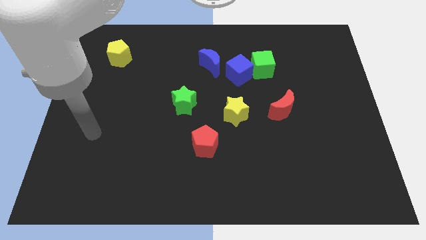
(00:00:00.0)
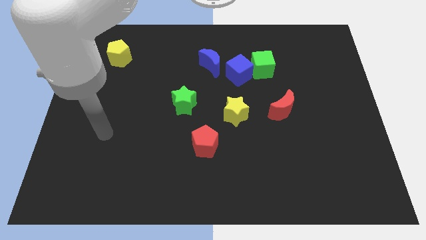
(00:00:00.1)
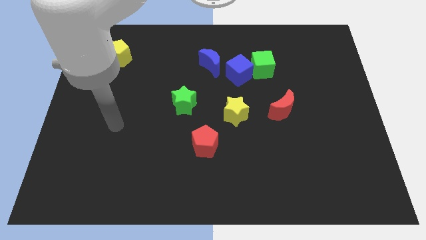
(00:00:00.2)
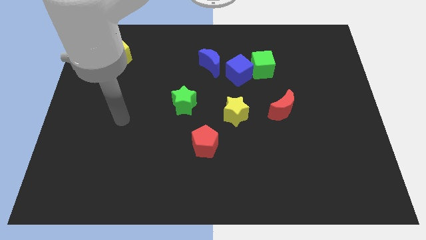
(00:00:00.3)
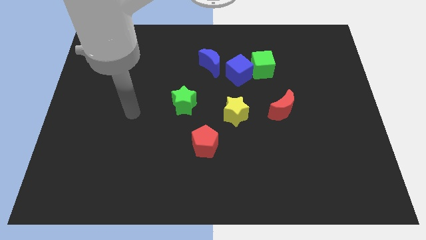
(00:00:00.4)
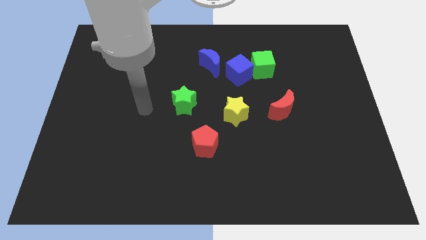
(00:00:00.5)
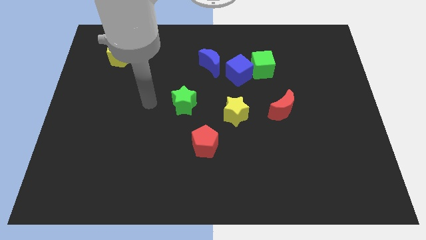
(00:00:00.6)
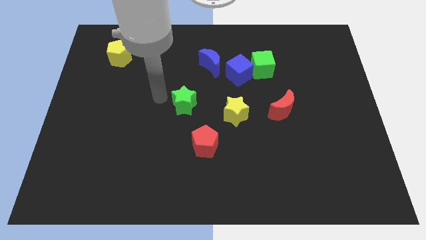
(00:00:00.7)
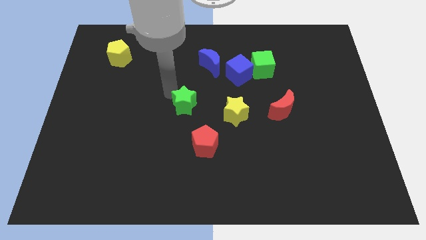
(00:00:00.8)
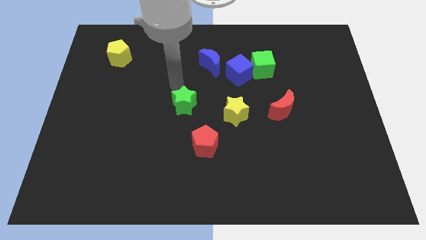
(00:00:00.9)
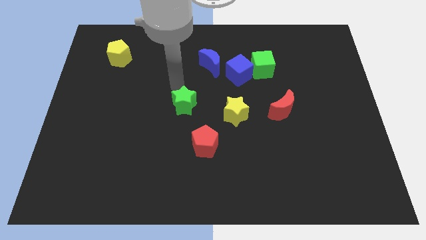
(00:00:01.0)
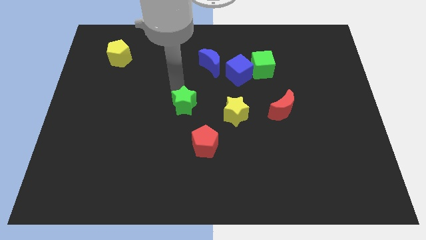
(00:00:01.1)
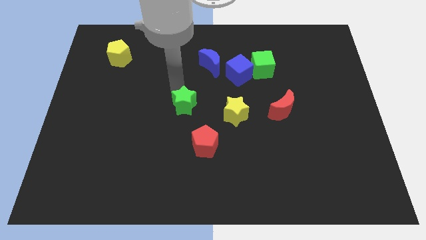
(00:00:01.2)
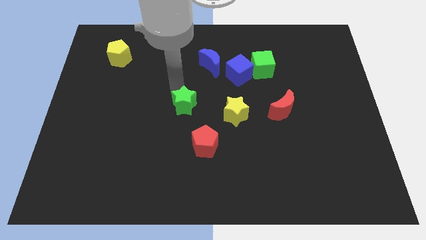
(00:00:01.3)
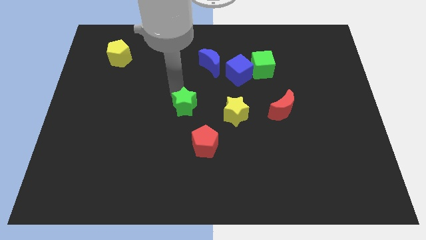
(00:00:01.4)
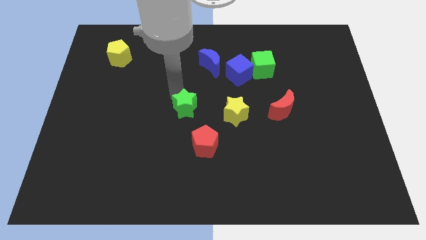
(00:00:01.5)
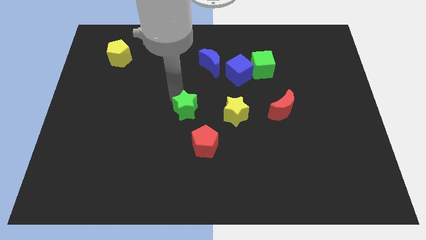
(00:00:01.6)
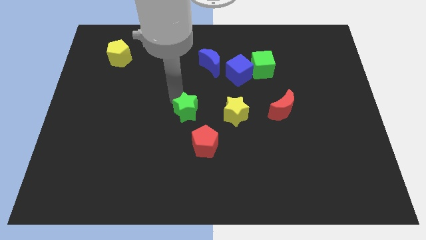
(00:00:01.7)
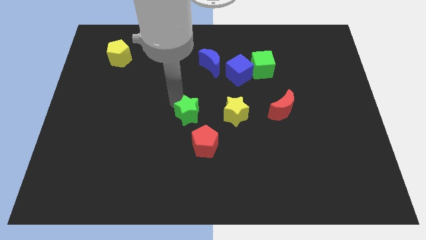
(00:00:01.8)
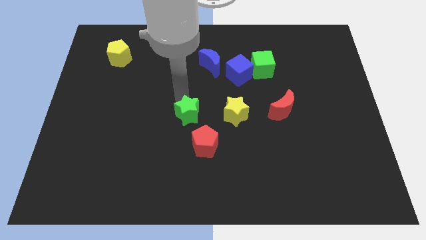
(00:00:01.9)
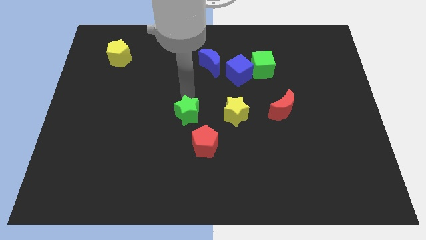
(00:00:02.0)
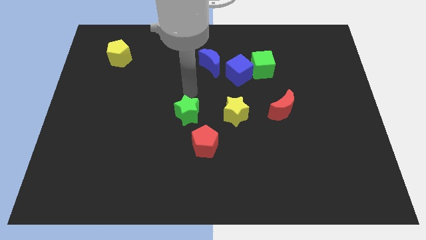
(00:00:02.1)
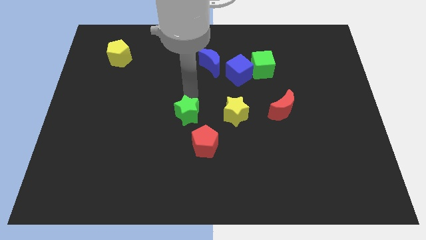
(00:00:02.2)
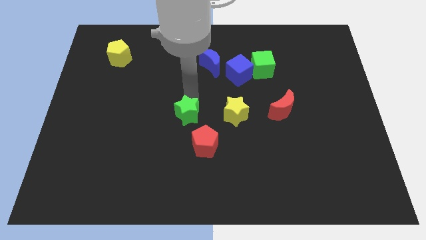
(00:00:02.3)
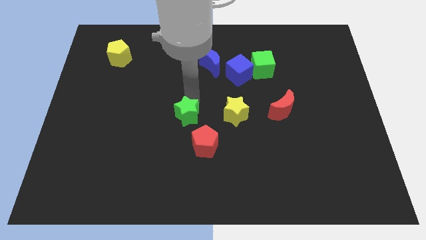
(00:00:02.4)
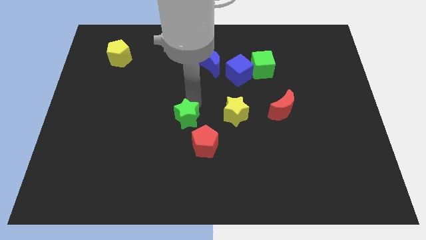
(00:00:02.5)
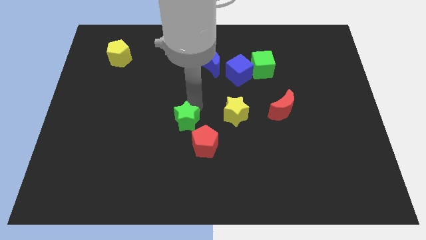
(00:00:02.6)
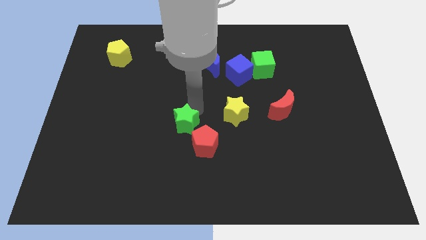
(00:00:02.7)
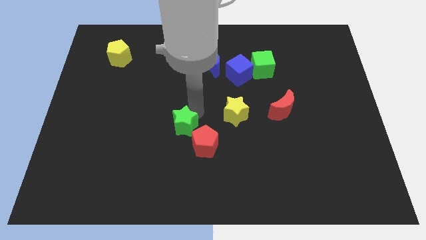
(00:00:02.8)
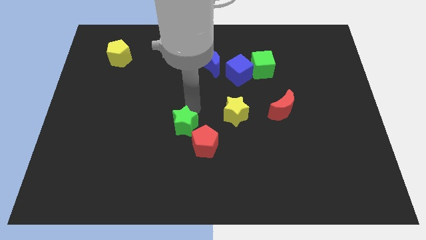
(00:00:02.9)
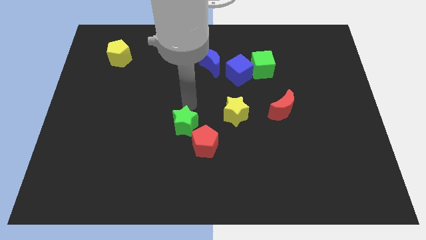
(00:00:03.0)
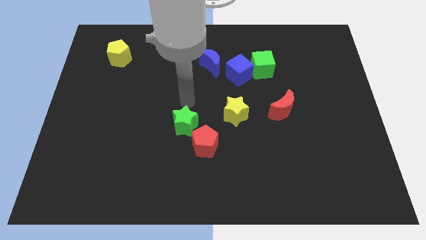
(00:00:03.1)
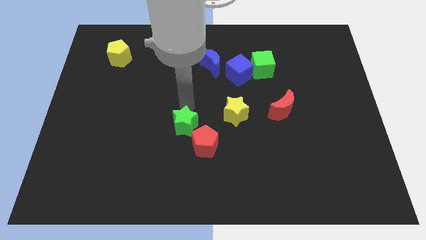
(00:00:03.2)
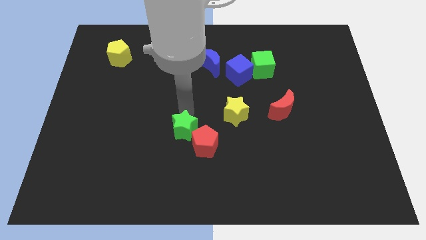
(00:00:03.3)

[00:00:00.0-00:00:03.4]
push the green star a little bit downwards

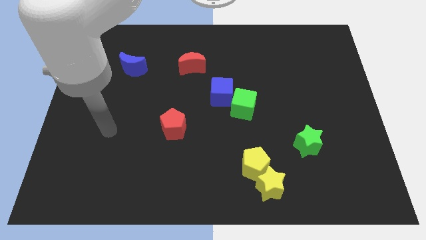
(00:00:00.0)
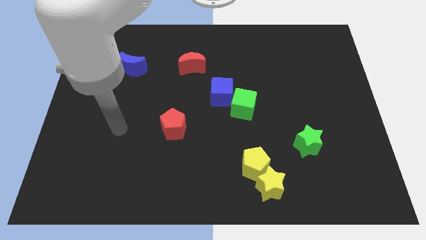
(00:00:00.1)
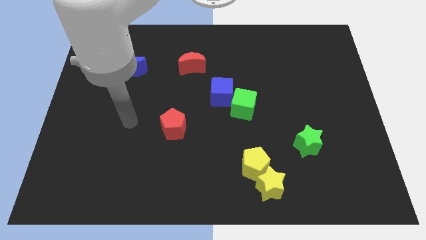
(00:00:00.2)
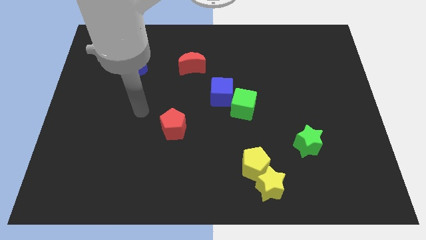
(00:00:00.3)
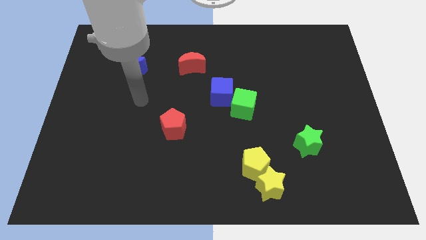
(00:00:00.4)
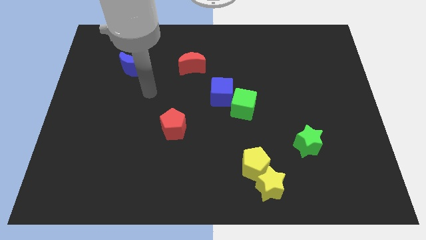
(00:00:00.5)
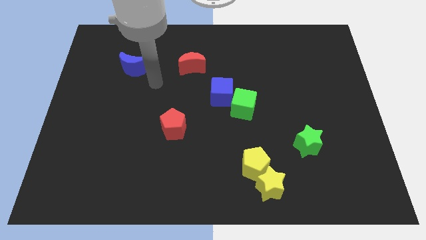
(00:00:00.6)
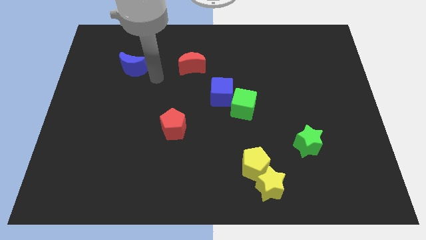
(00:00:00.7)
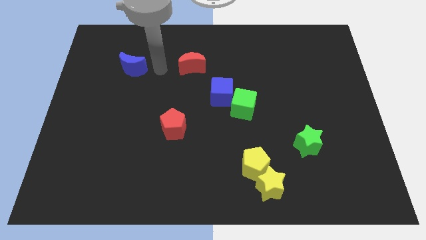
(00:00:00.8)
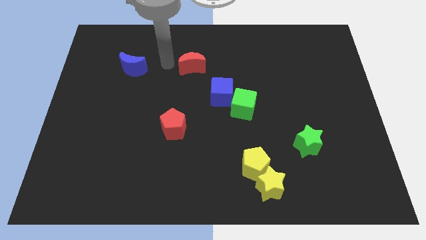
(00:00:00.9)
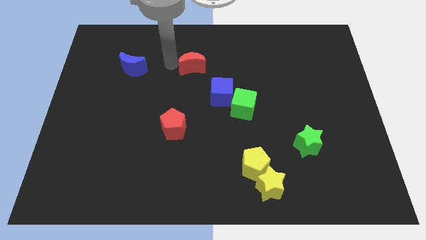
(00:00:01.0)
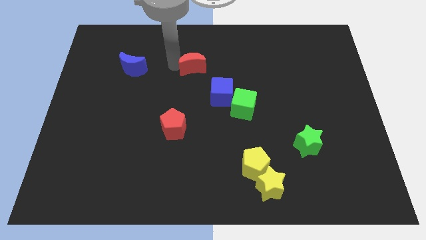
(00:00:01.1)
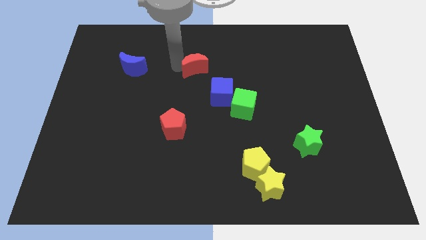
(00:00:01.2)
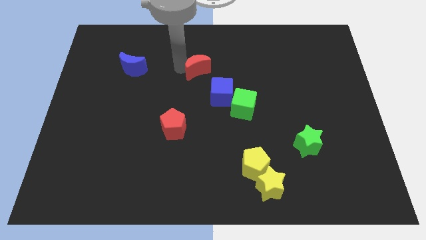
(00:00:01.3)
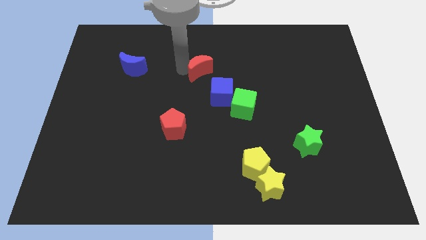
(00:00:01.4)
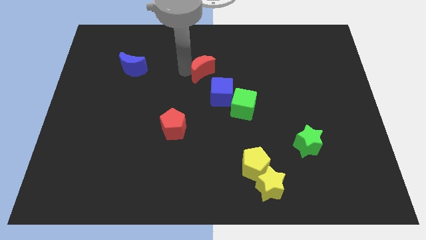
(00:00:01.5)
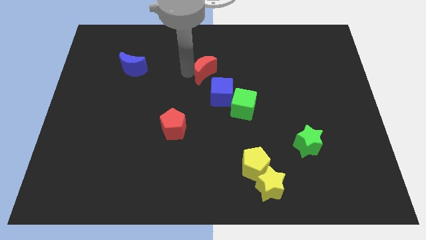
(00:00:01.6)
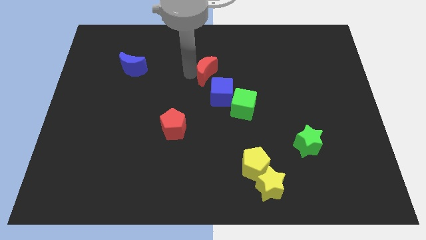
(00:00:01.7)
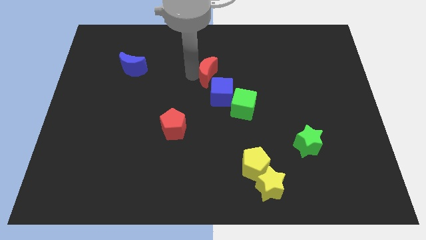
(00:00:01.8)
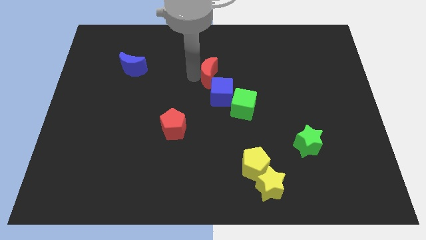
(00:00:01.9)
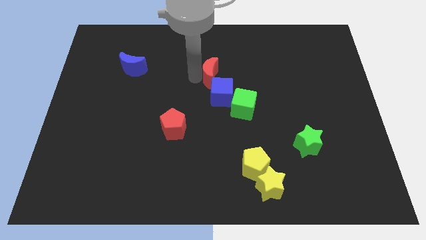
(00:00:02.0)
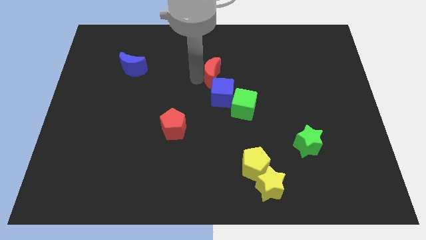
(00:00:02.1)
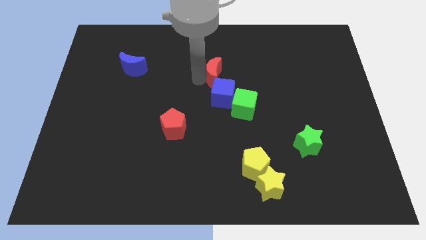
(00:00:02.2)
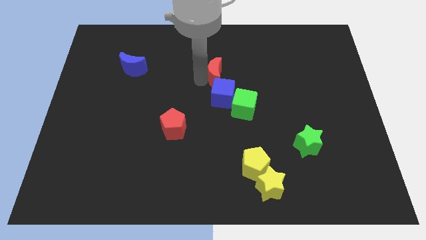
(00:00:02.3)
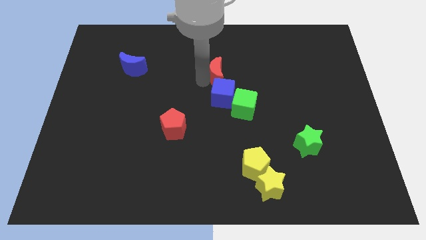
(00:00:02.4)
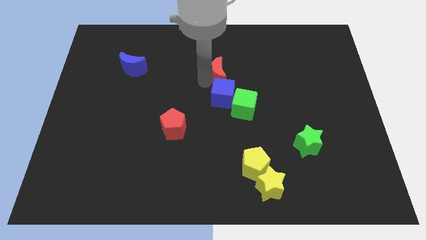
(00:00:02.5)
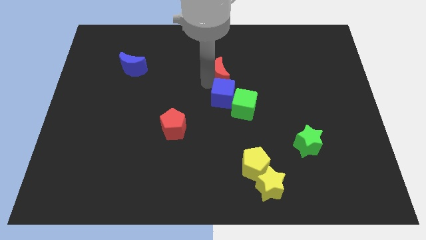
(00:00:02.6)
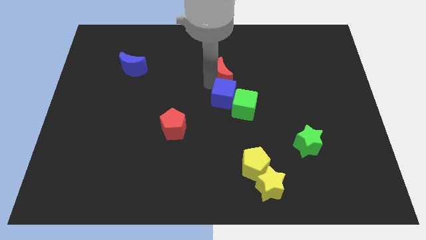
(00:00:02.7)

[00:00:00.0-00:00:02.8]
move the red moon to the right slightly

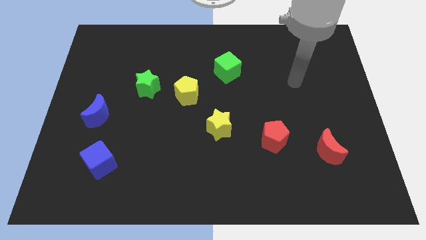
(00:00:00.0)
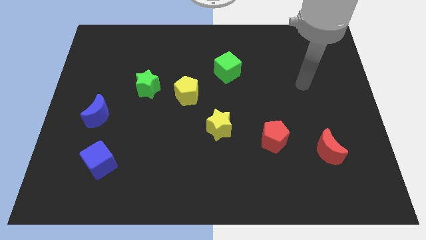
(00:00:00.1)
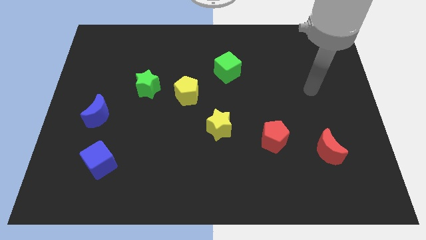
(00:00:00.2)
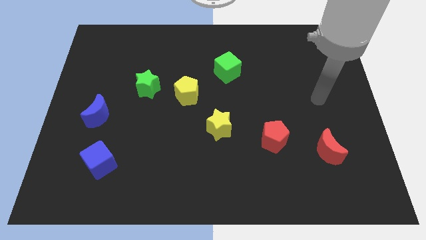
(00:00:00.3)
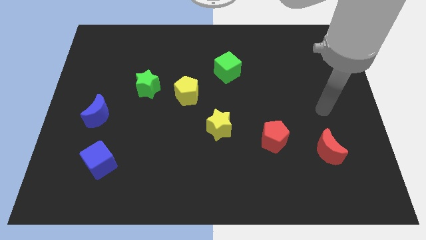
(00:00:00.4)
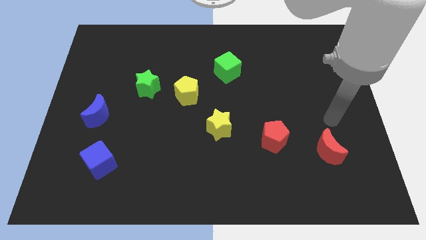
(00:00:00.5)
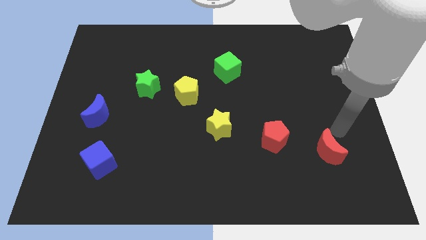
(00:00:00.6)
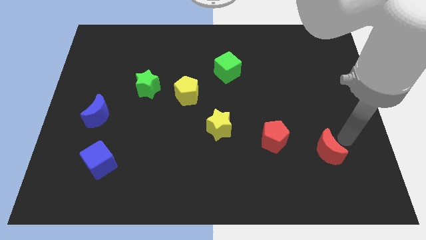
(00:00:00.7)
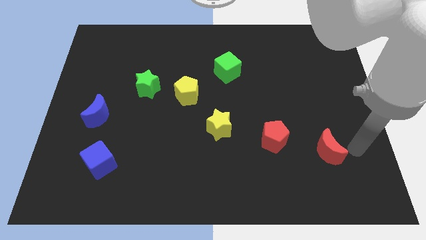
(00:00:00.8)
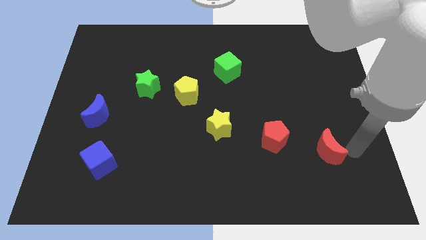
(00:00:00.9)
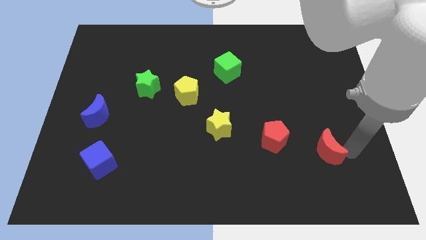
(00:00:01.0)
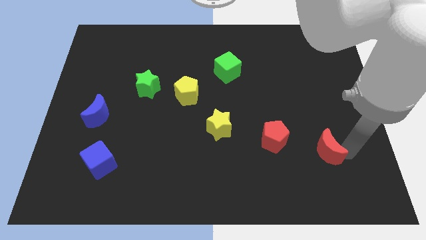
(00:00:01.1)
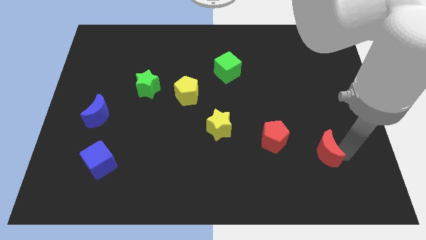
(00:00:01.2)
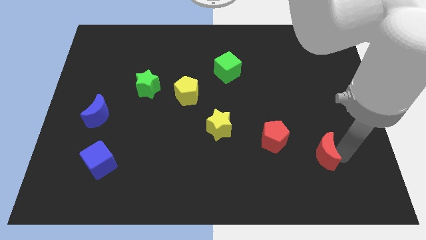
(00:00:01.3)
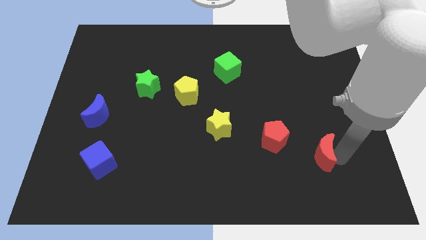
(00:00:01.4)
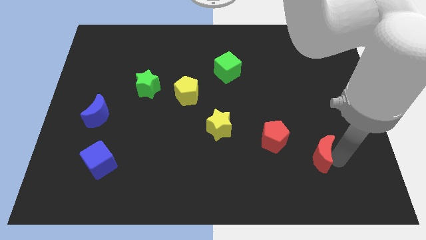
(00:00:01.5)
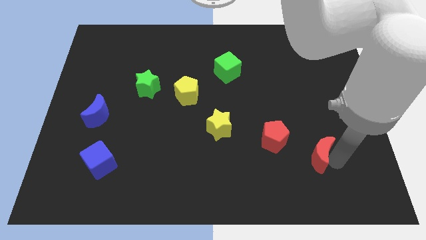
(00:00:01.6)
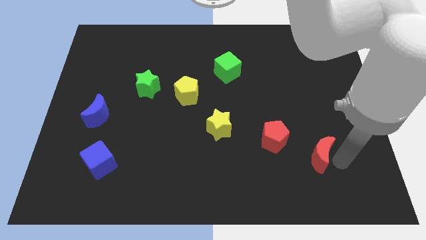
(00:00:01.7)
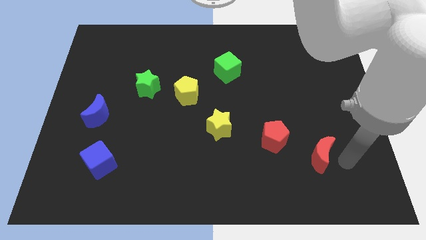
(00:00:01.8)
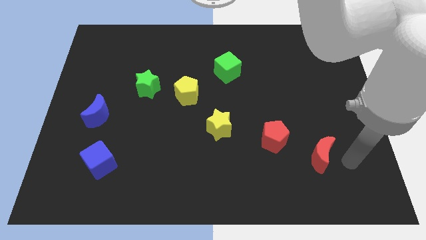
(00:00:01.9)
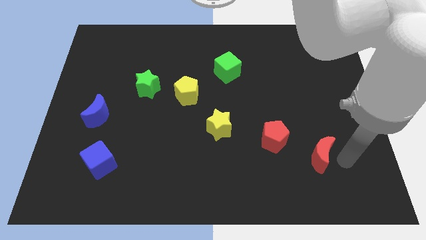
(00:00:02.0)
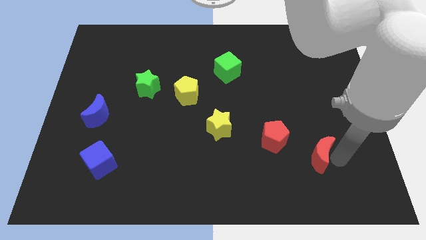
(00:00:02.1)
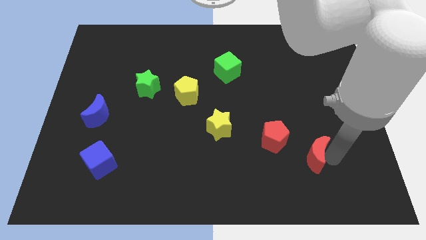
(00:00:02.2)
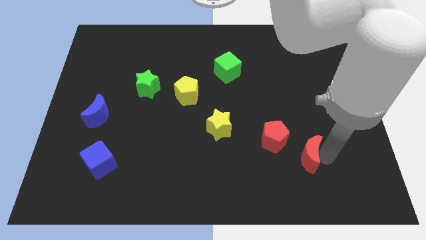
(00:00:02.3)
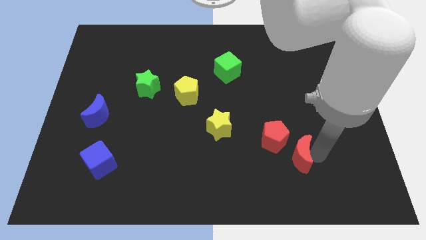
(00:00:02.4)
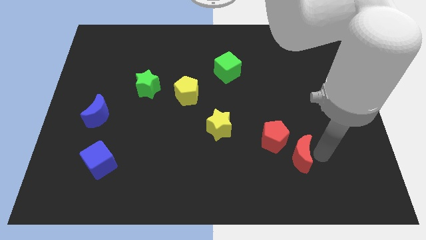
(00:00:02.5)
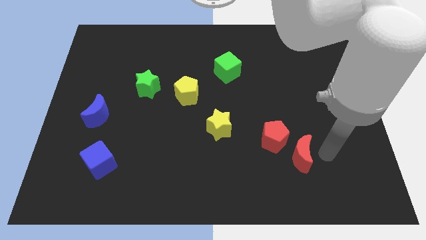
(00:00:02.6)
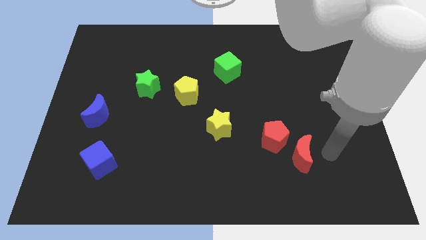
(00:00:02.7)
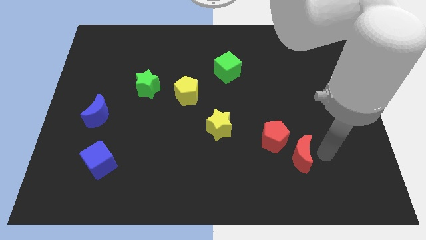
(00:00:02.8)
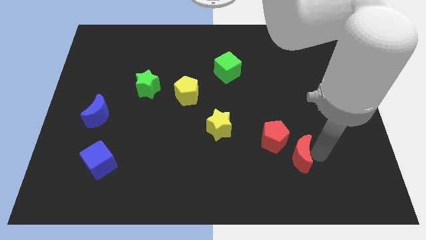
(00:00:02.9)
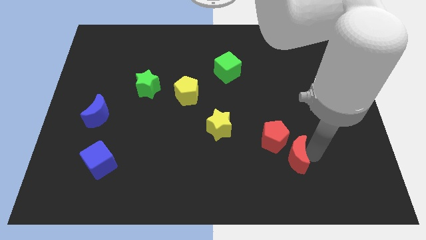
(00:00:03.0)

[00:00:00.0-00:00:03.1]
move the red moon left slightly
